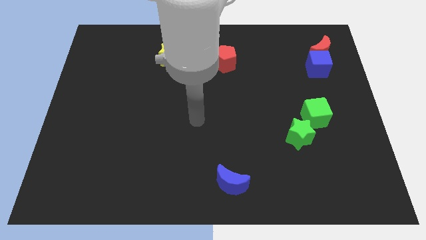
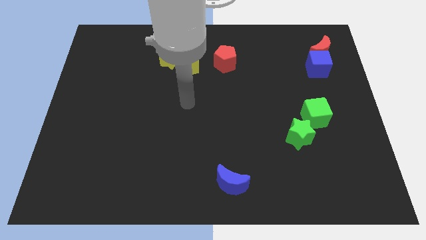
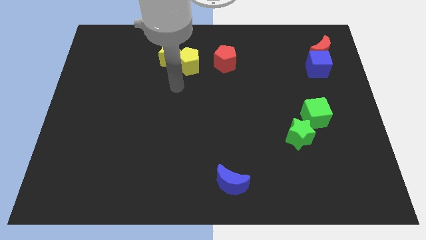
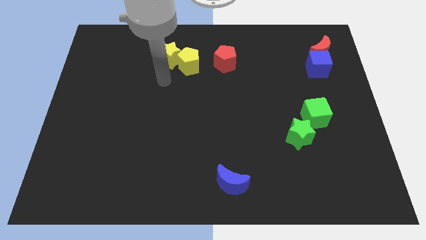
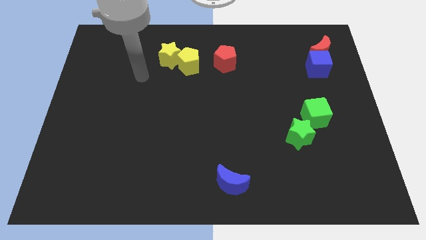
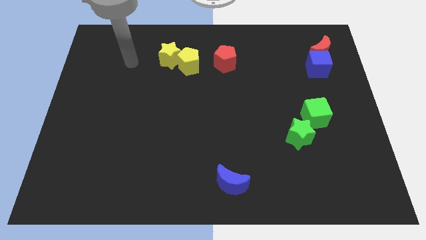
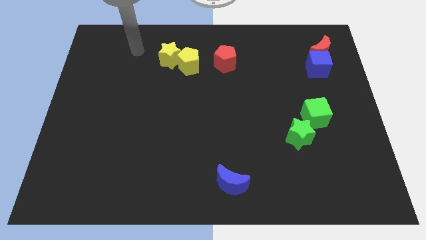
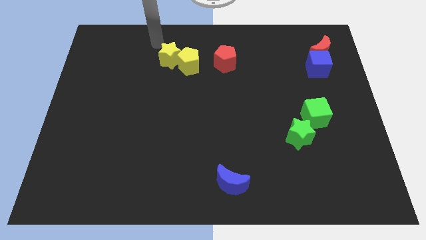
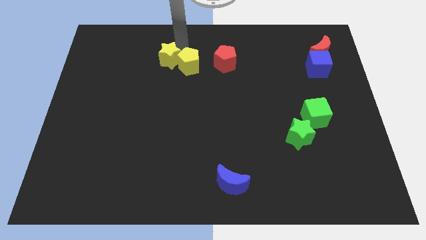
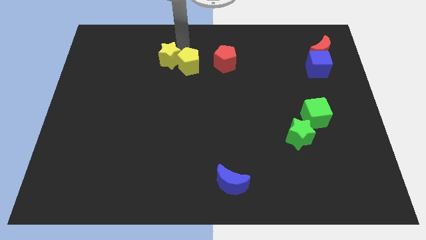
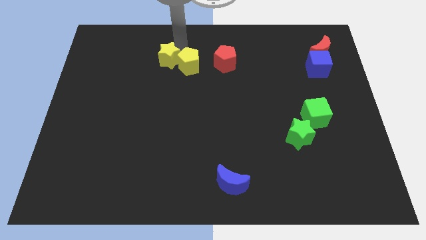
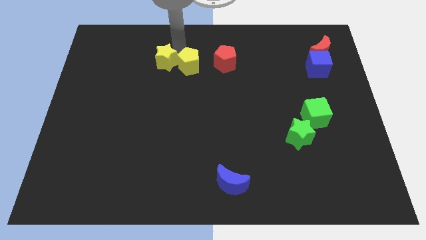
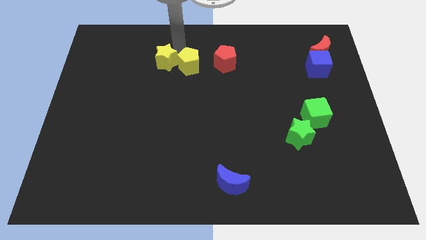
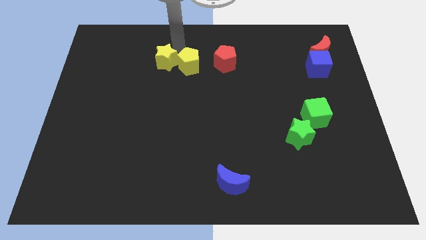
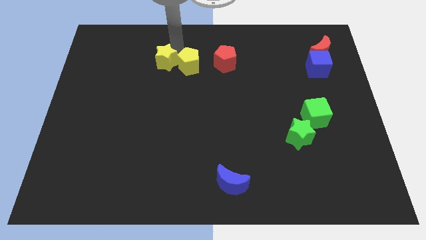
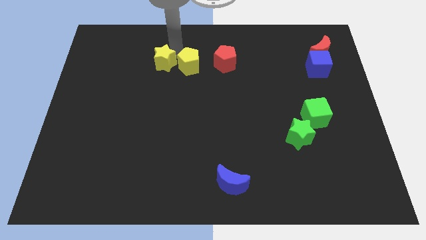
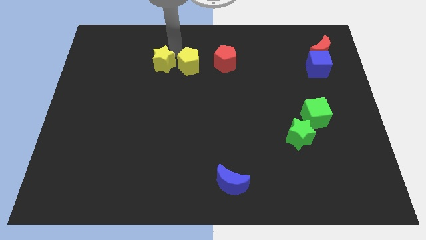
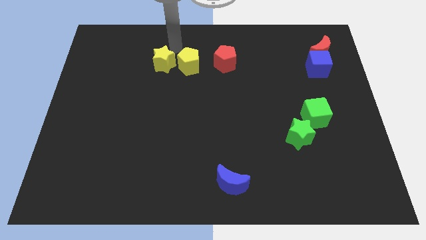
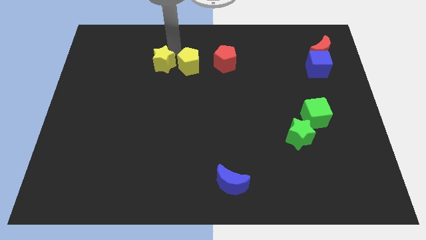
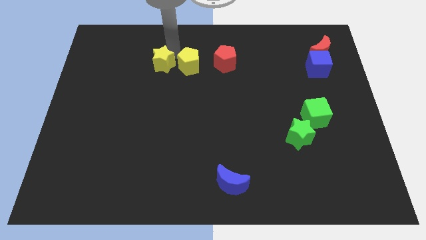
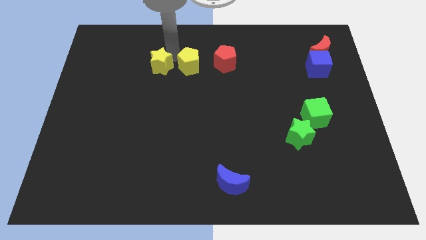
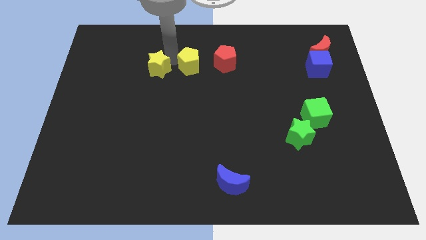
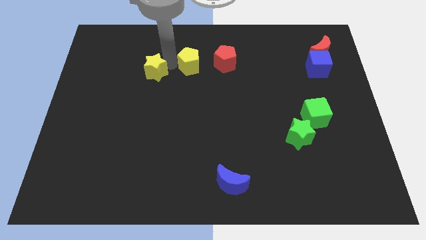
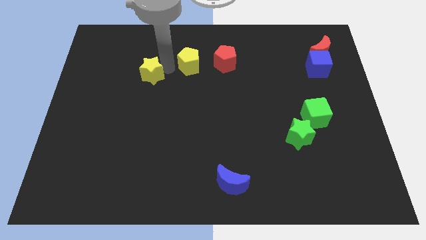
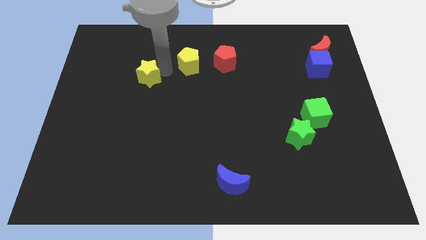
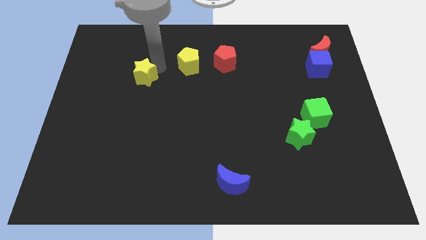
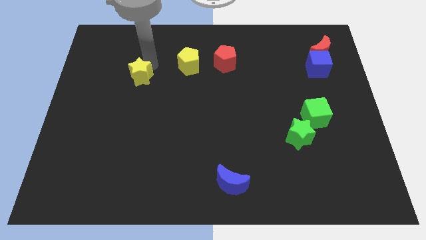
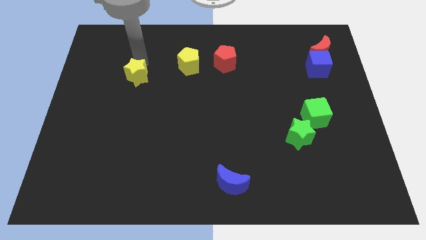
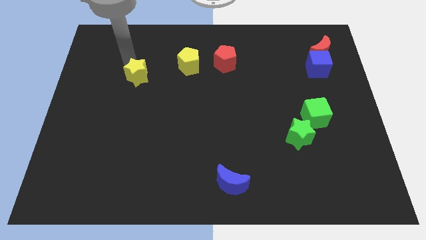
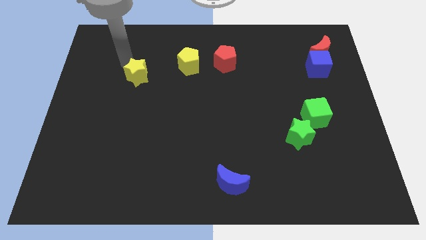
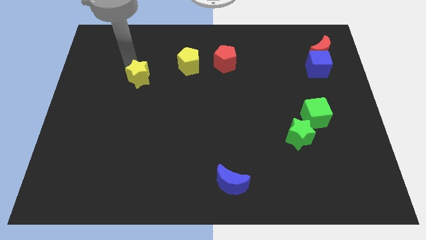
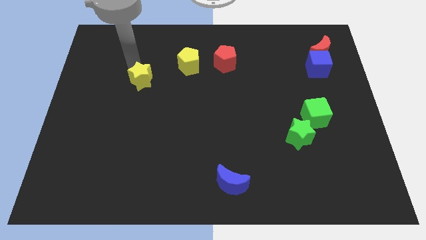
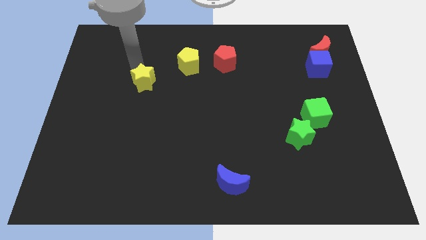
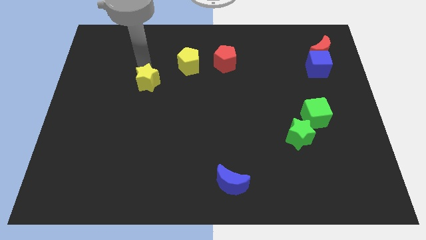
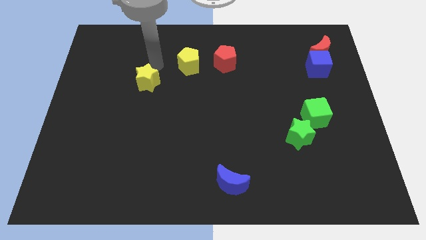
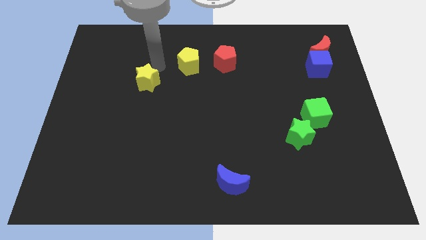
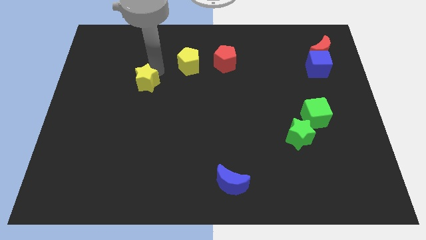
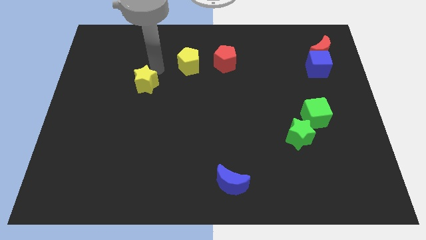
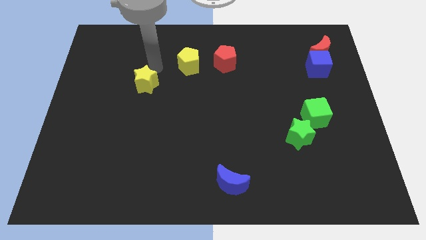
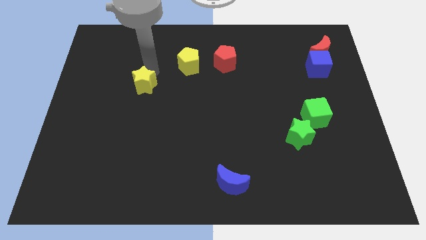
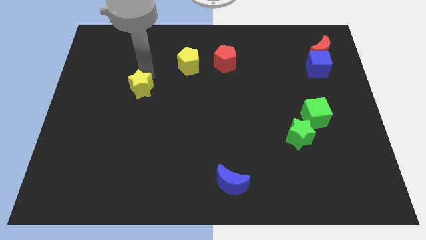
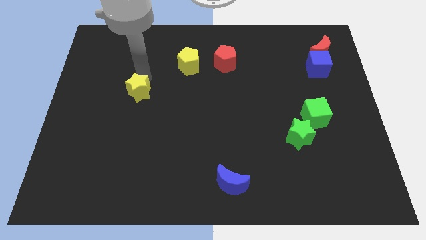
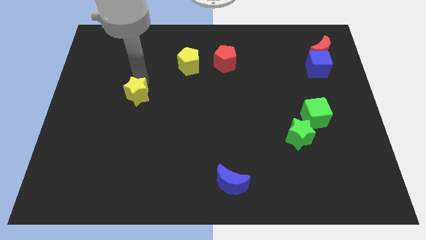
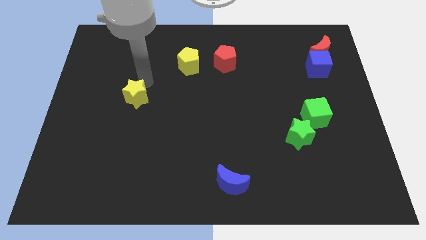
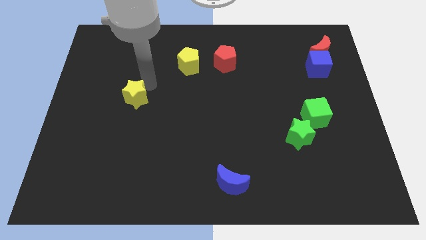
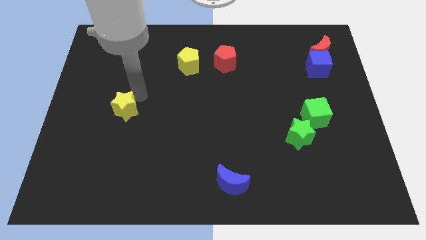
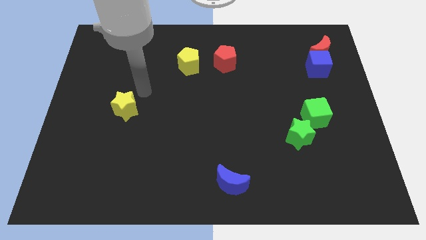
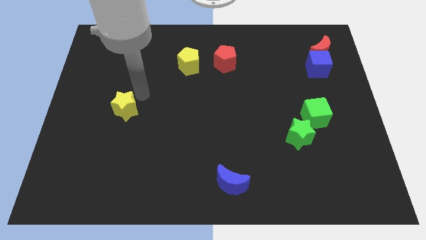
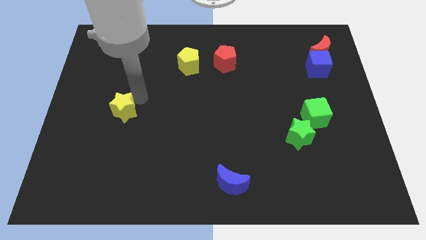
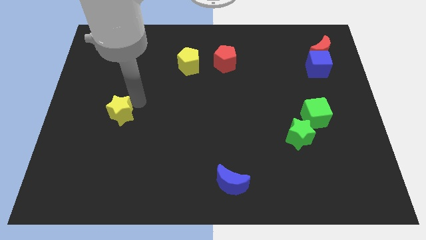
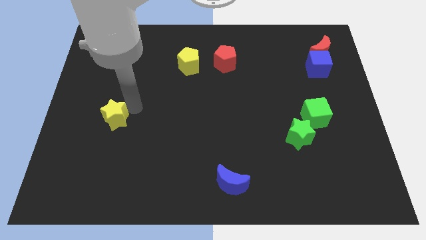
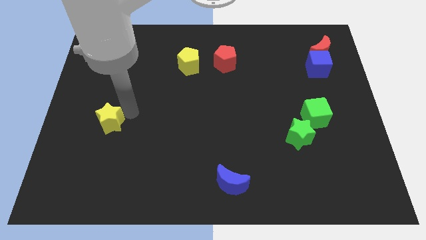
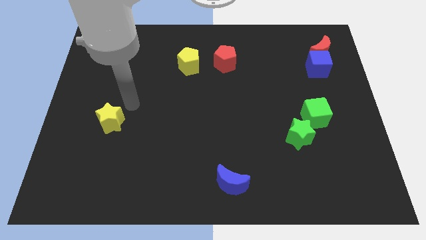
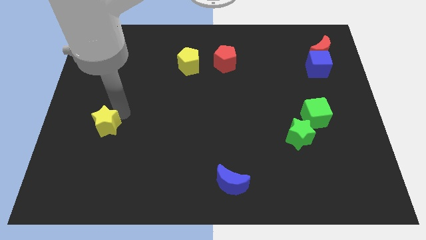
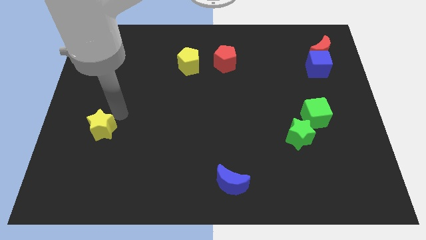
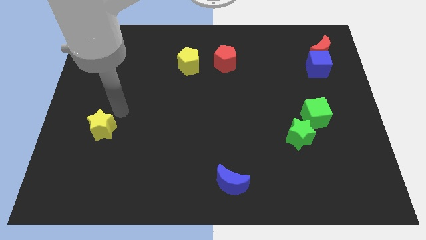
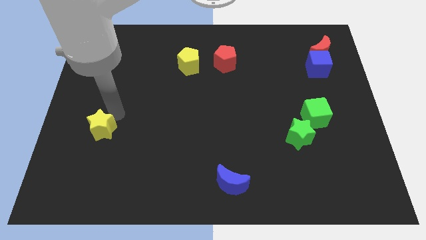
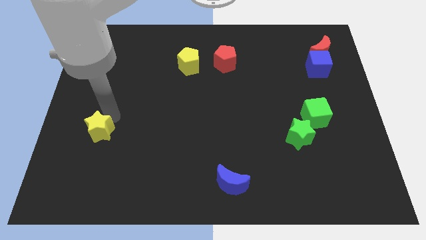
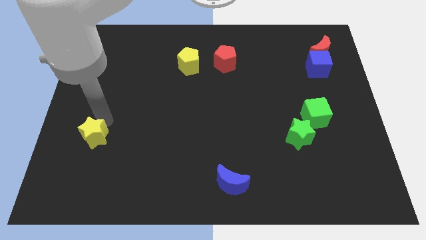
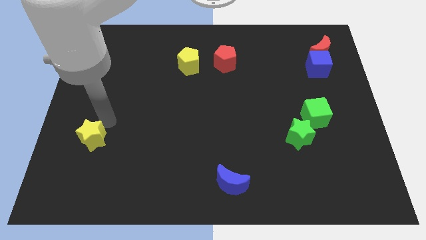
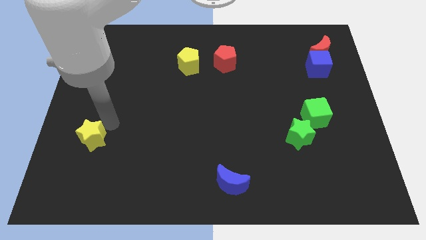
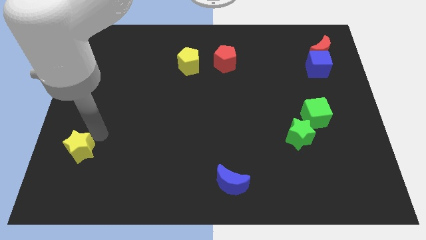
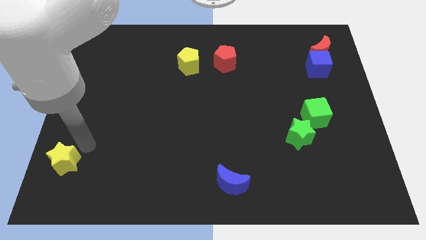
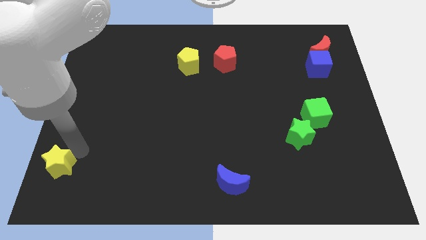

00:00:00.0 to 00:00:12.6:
slide the yellow star to the lower left corner

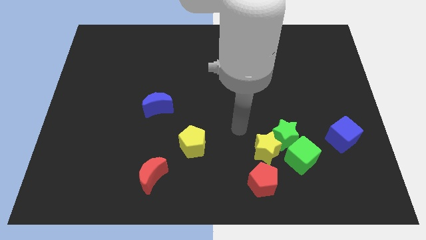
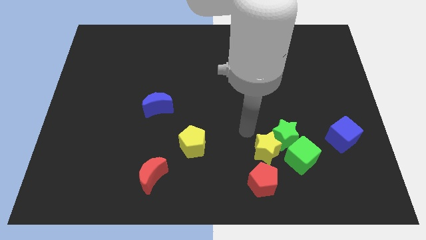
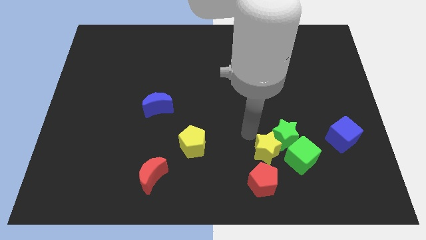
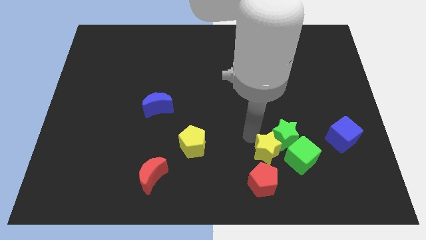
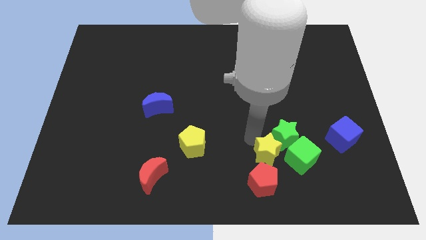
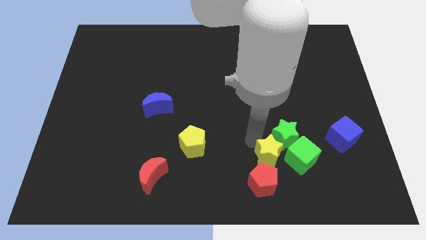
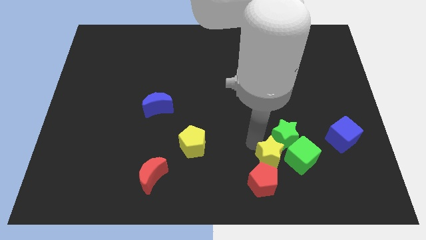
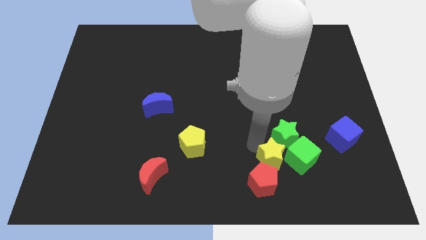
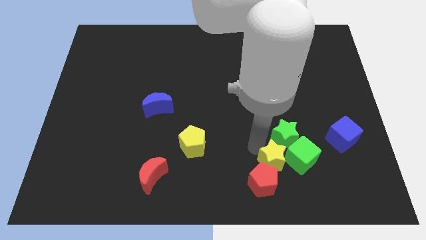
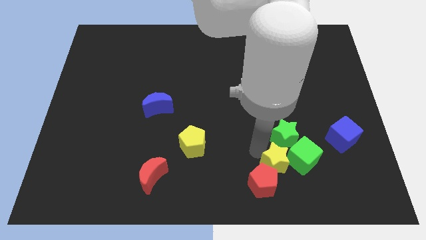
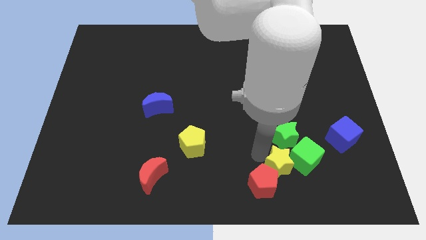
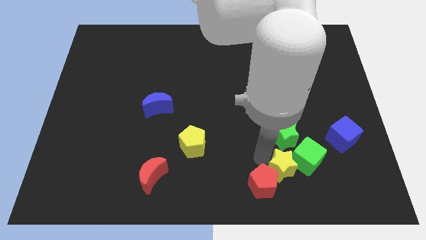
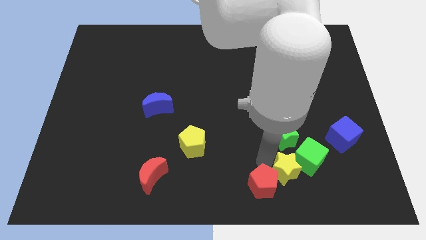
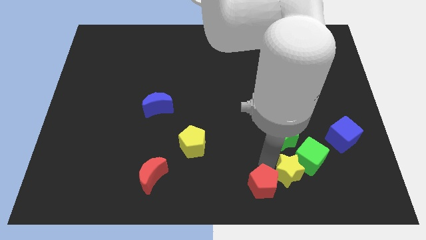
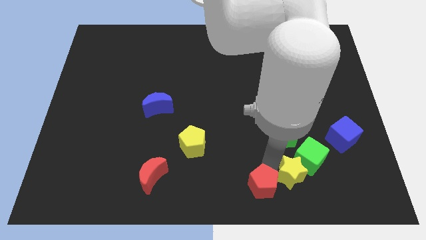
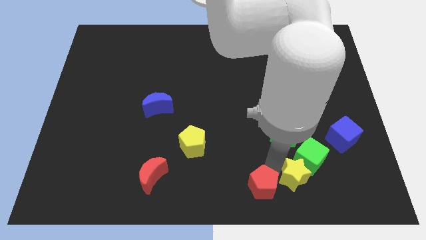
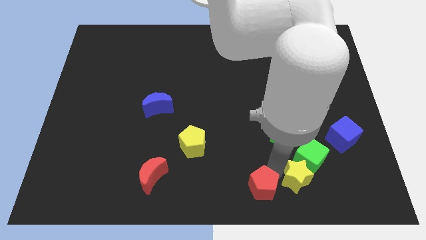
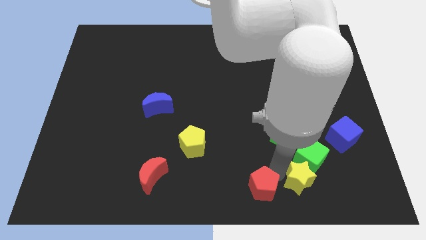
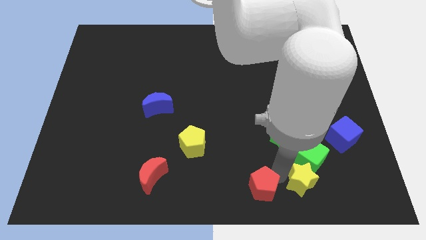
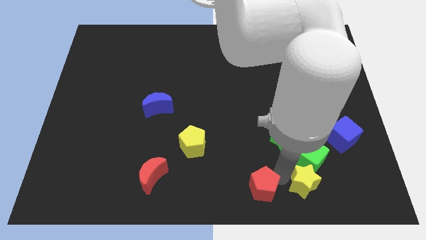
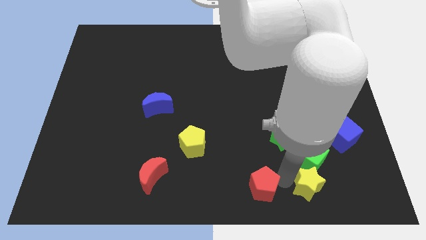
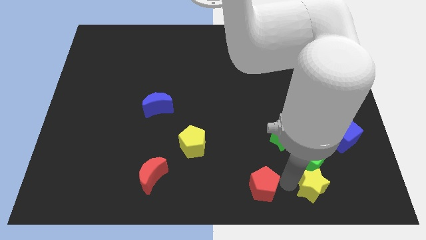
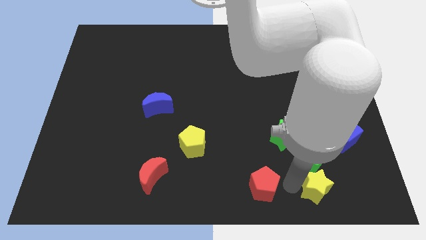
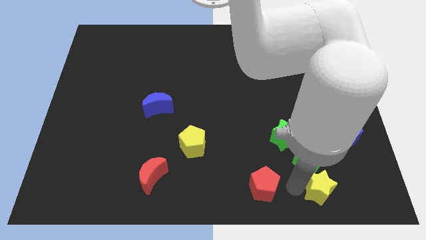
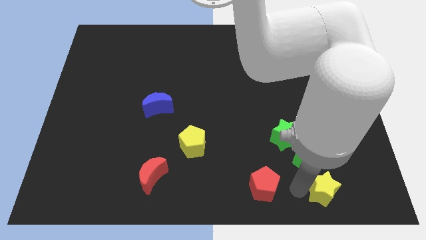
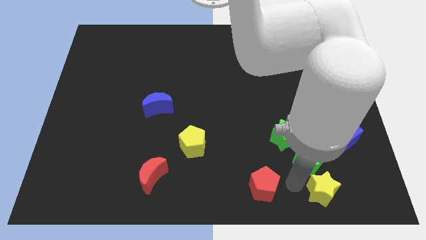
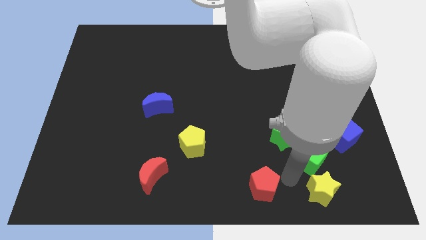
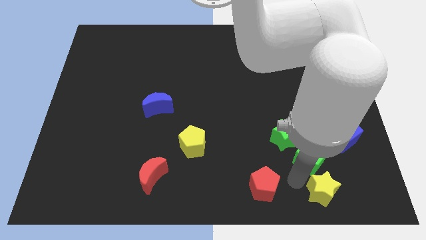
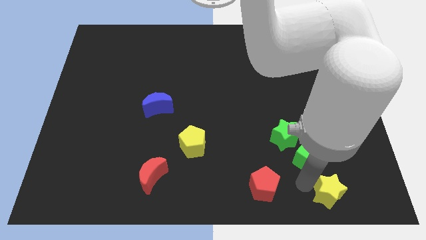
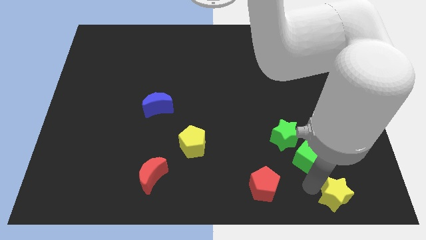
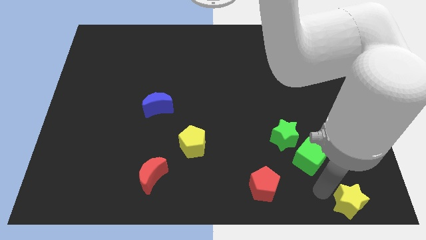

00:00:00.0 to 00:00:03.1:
push the yellow star to the lower right corner
